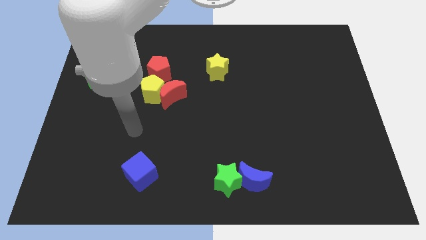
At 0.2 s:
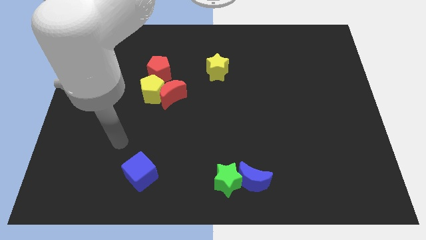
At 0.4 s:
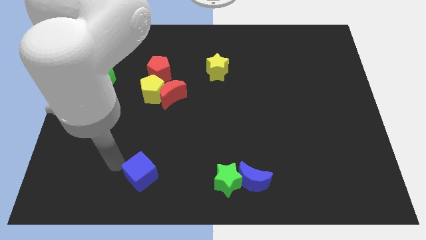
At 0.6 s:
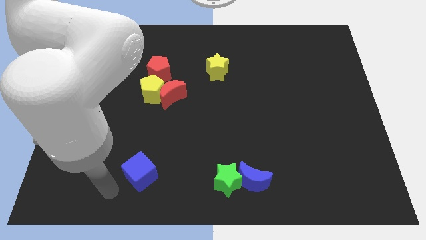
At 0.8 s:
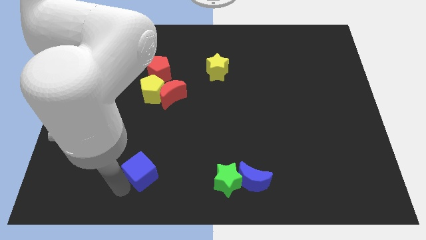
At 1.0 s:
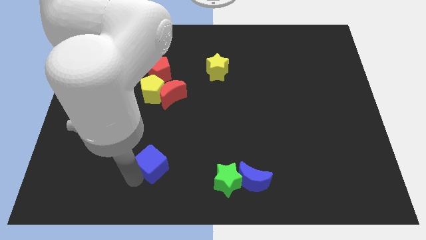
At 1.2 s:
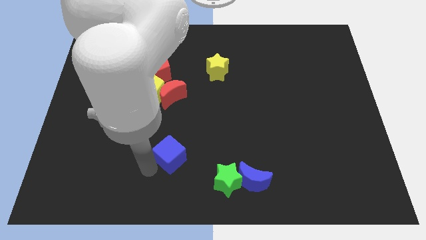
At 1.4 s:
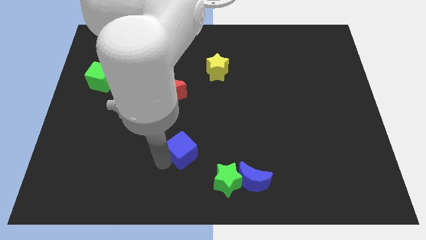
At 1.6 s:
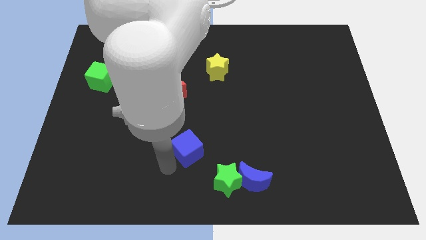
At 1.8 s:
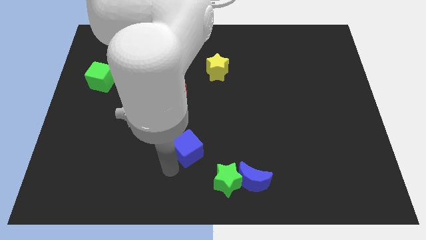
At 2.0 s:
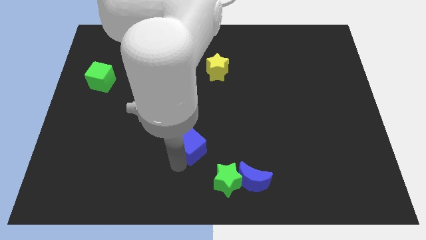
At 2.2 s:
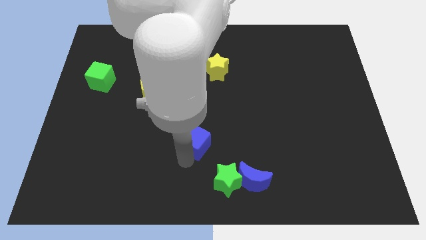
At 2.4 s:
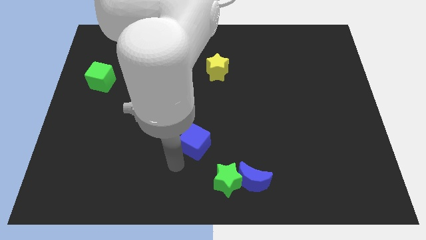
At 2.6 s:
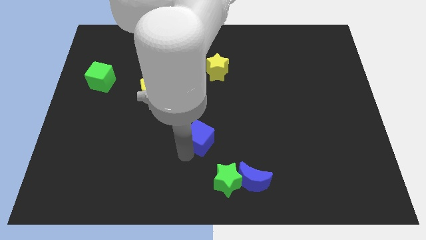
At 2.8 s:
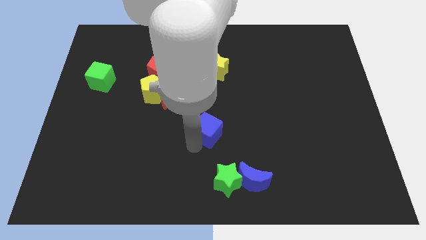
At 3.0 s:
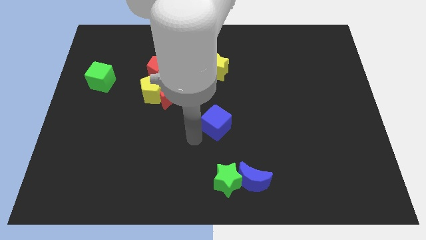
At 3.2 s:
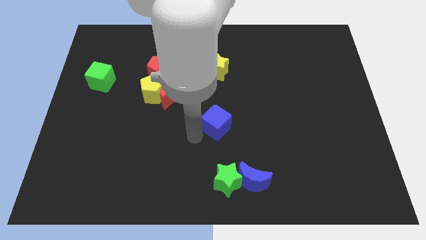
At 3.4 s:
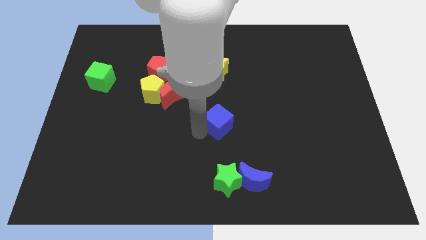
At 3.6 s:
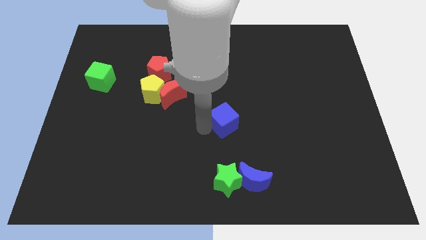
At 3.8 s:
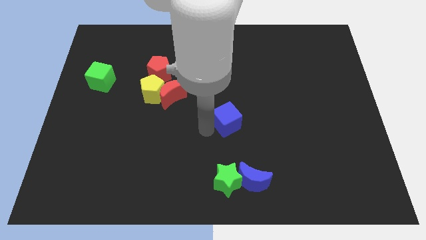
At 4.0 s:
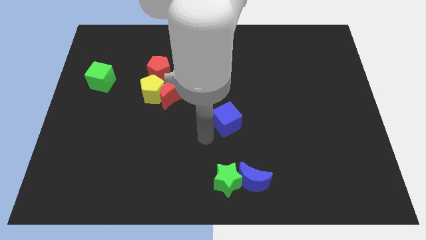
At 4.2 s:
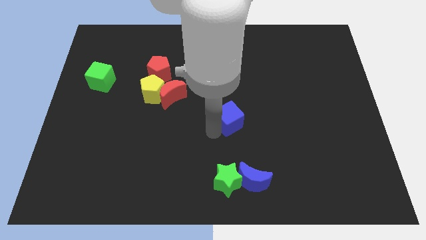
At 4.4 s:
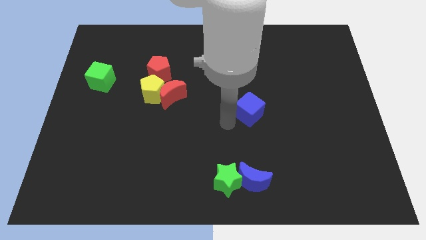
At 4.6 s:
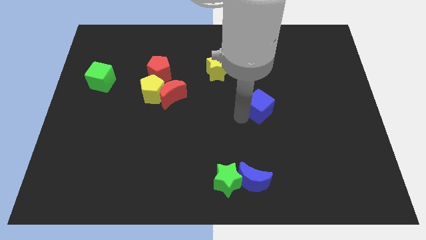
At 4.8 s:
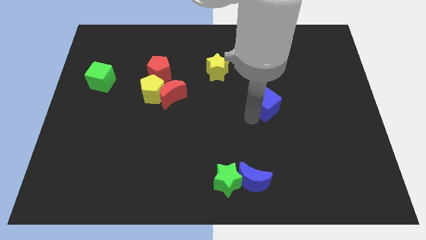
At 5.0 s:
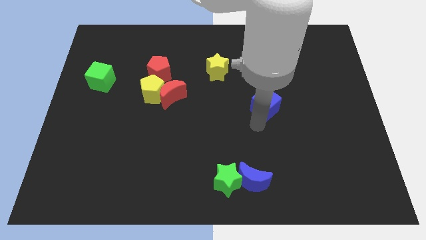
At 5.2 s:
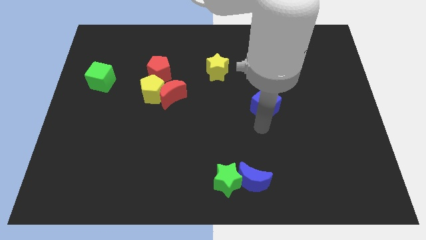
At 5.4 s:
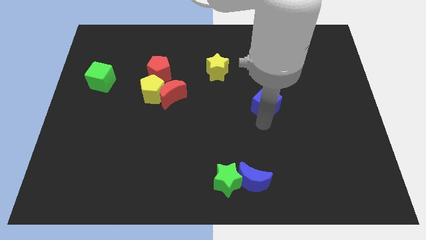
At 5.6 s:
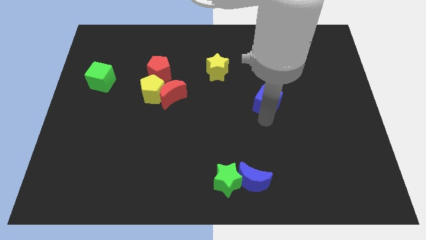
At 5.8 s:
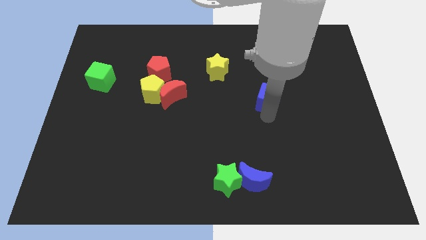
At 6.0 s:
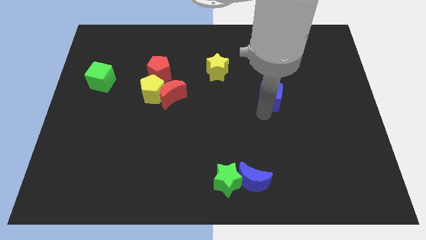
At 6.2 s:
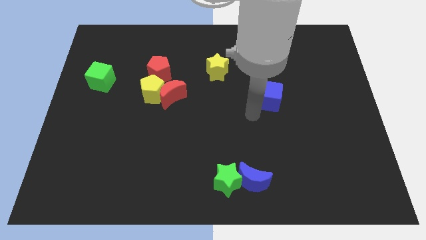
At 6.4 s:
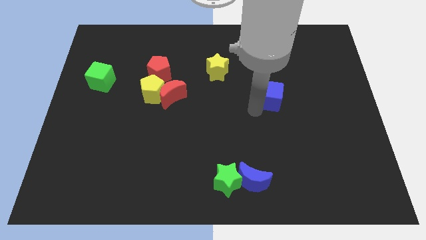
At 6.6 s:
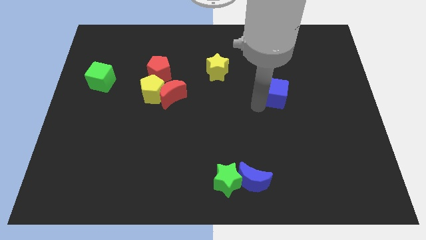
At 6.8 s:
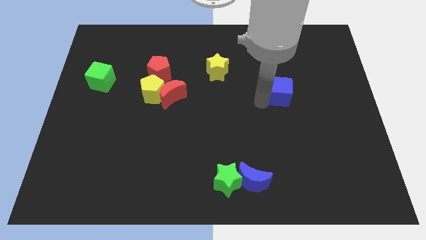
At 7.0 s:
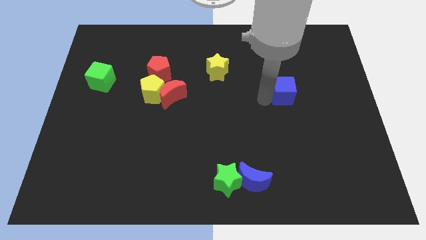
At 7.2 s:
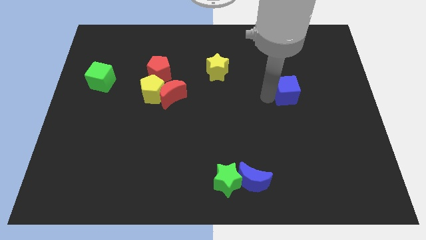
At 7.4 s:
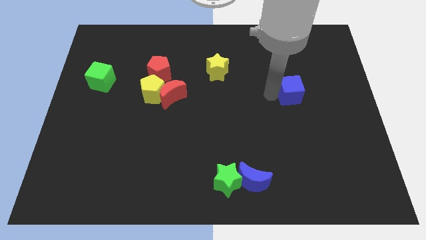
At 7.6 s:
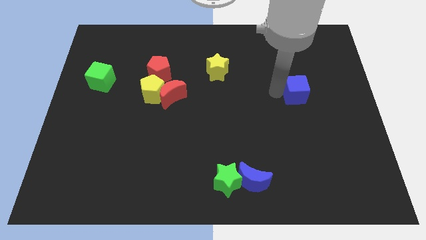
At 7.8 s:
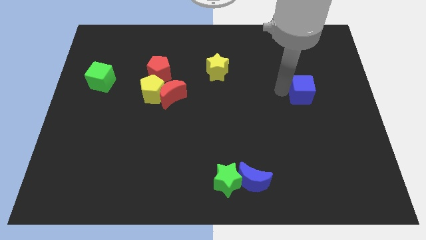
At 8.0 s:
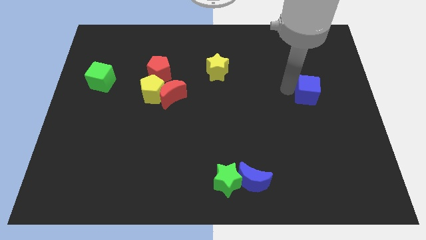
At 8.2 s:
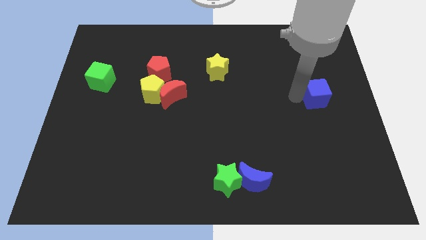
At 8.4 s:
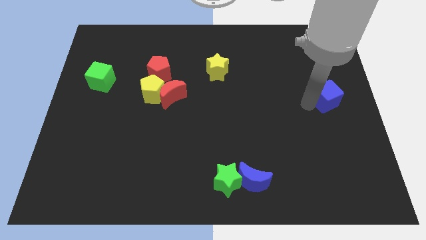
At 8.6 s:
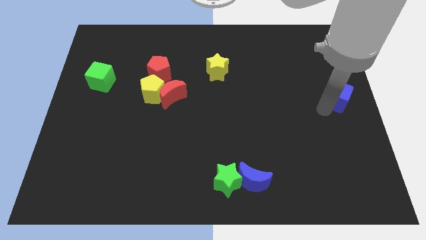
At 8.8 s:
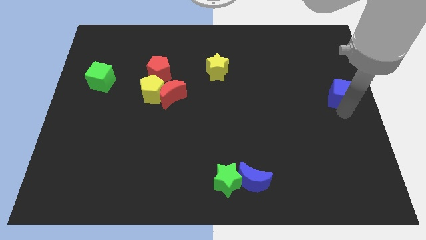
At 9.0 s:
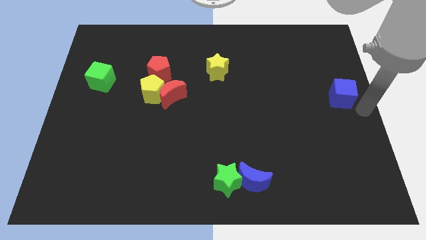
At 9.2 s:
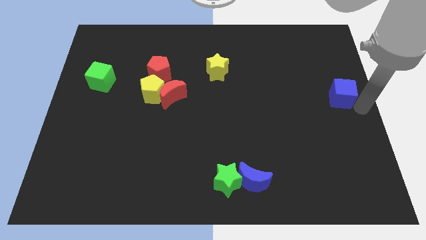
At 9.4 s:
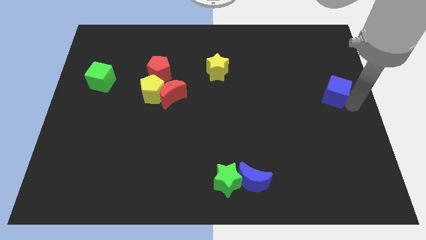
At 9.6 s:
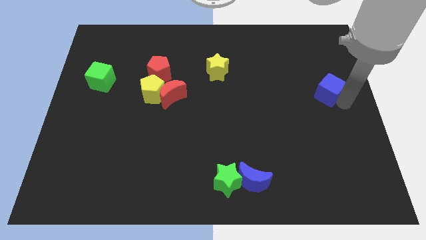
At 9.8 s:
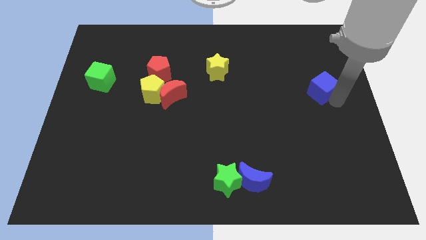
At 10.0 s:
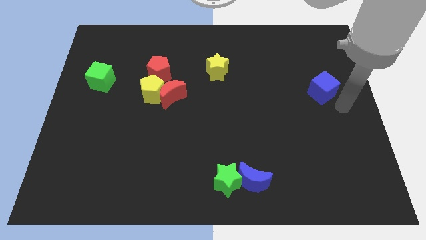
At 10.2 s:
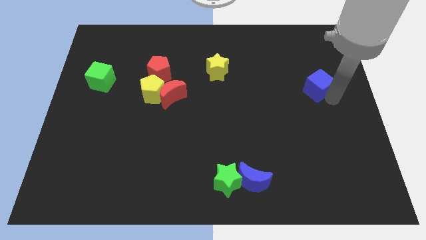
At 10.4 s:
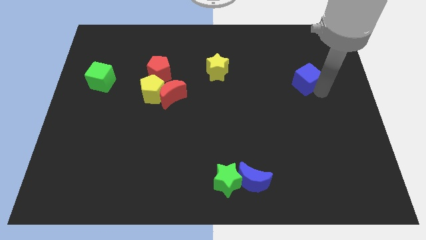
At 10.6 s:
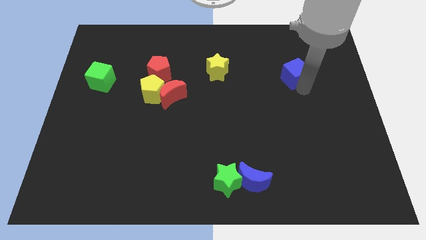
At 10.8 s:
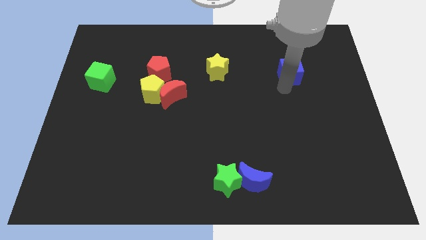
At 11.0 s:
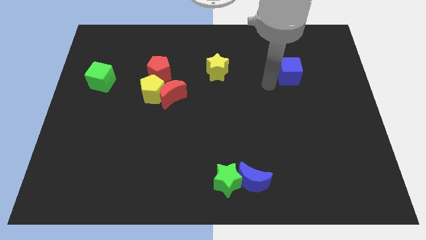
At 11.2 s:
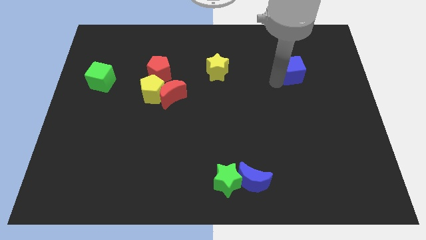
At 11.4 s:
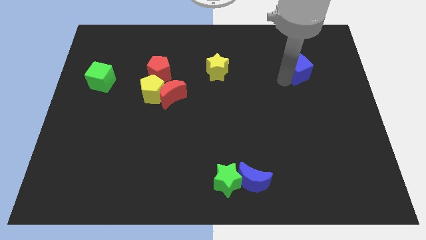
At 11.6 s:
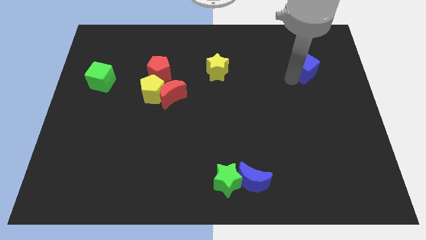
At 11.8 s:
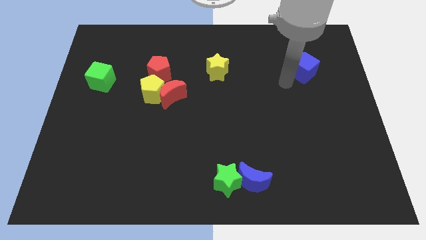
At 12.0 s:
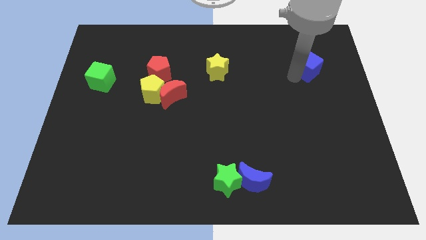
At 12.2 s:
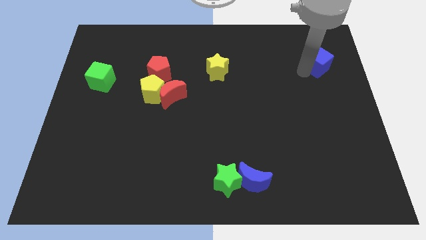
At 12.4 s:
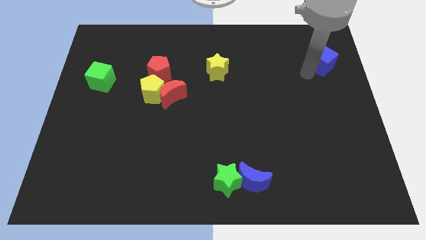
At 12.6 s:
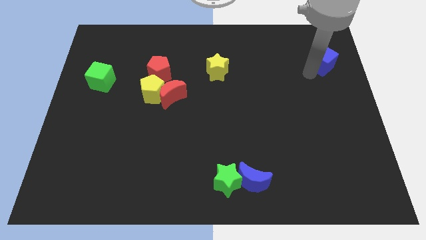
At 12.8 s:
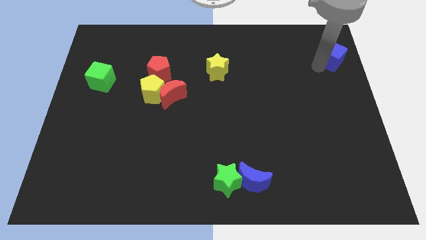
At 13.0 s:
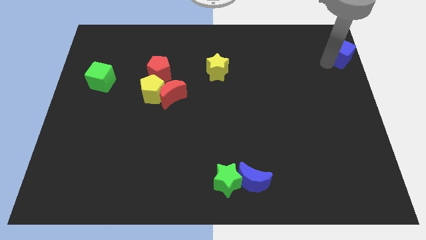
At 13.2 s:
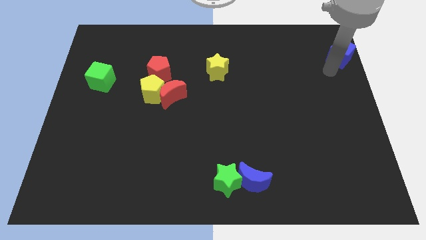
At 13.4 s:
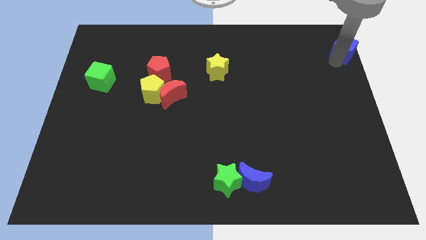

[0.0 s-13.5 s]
put the blue cube to the upper right corner

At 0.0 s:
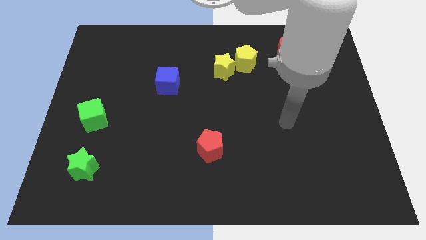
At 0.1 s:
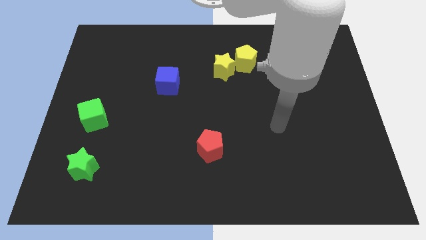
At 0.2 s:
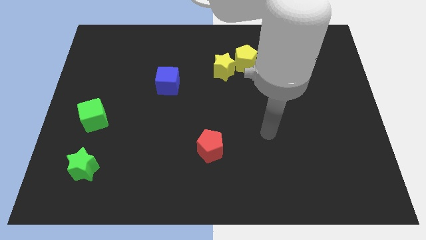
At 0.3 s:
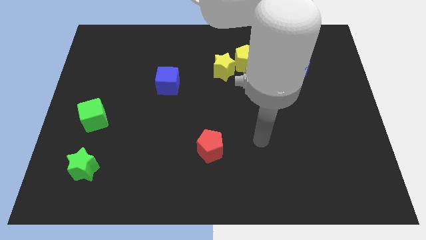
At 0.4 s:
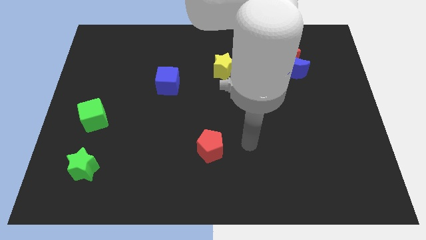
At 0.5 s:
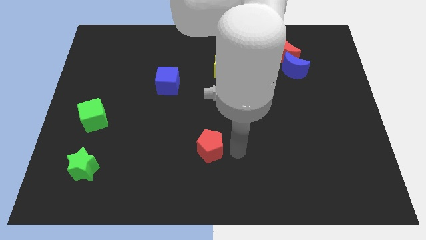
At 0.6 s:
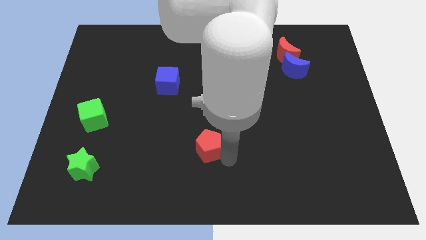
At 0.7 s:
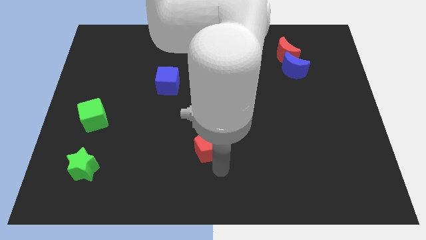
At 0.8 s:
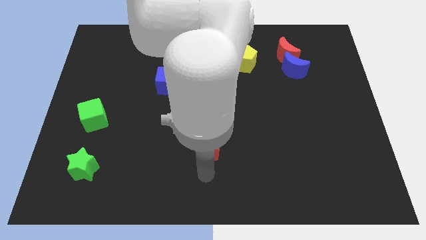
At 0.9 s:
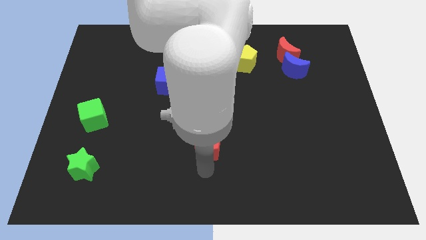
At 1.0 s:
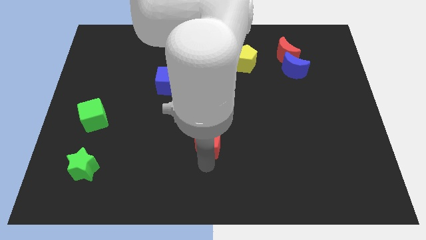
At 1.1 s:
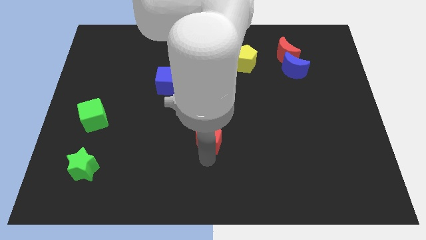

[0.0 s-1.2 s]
put the red pentagon to the center
